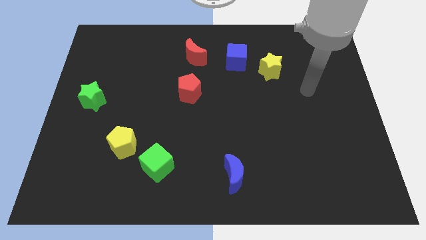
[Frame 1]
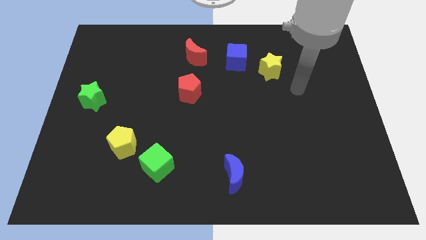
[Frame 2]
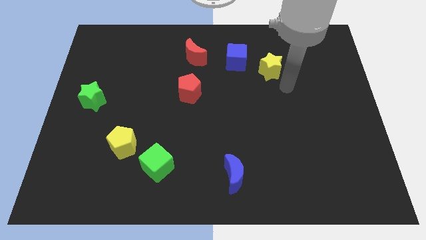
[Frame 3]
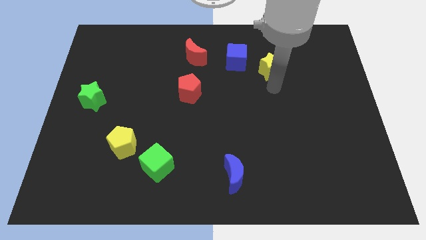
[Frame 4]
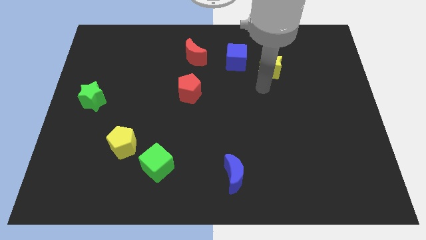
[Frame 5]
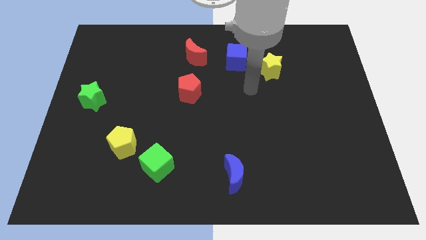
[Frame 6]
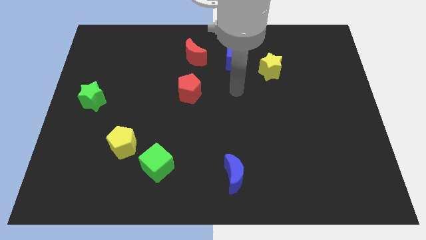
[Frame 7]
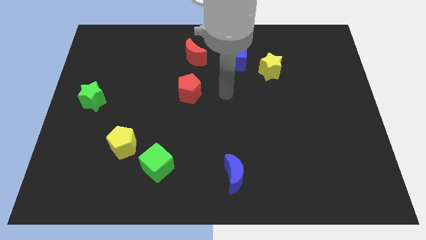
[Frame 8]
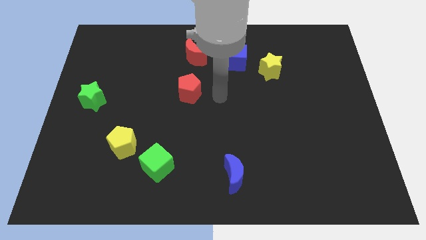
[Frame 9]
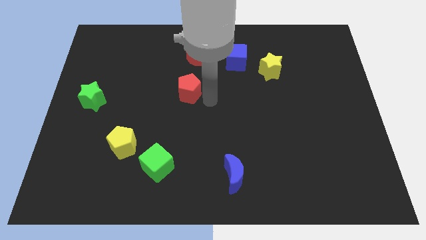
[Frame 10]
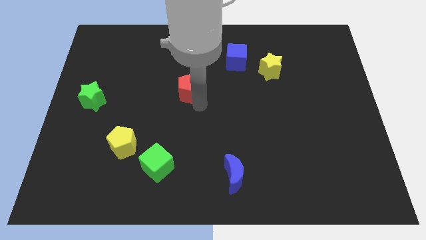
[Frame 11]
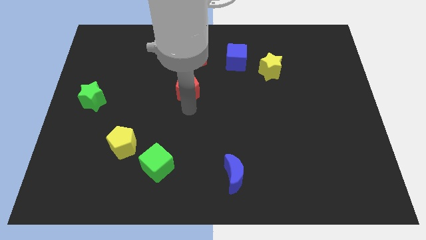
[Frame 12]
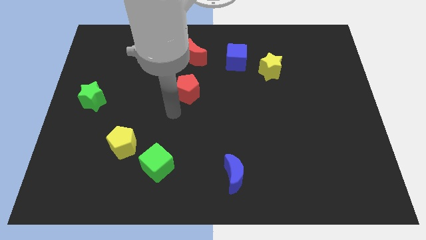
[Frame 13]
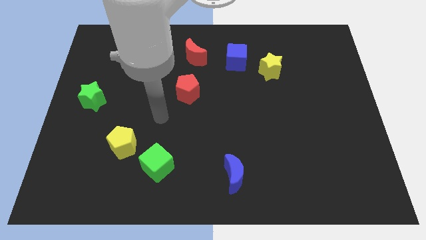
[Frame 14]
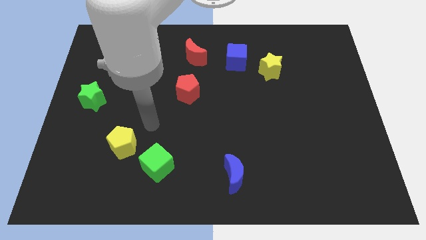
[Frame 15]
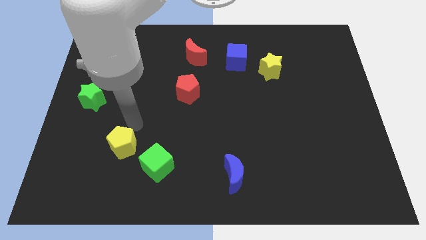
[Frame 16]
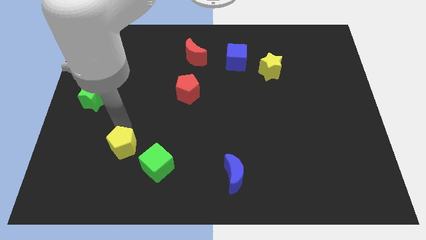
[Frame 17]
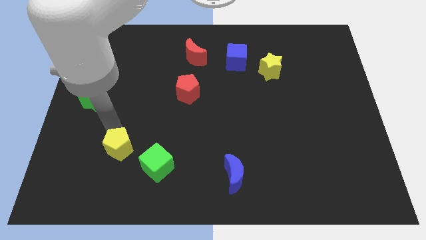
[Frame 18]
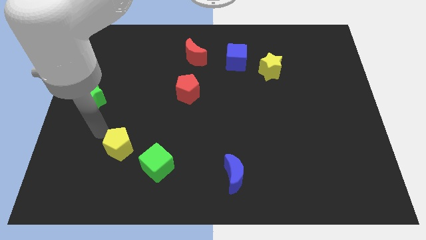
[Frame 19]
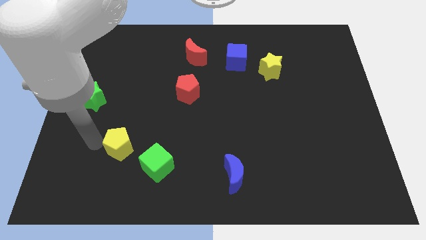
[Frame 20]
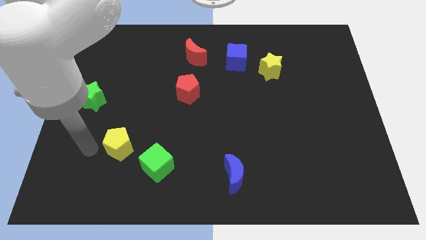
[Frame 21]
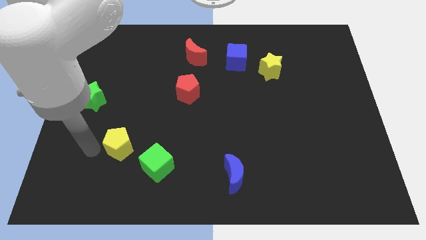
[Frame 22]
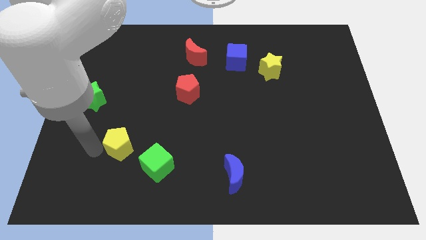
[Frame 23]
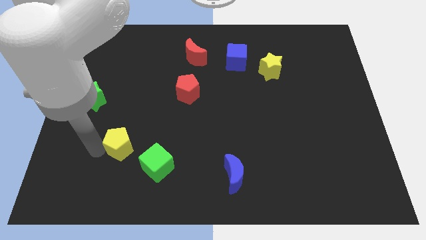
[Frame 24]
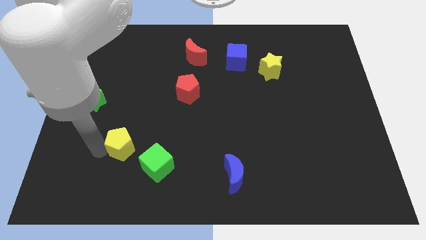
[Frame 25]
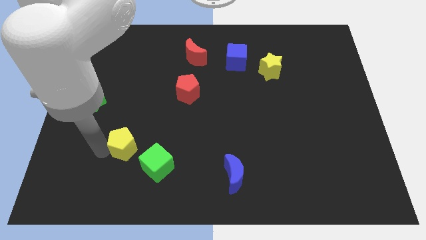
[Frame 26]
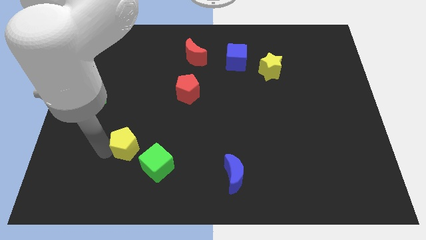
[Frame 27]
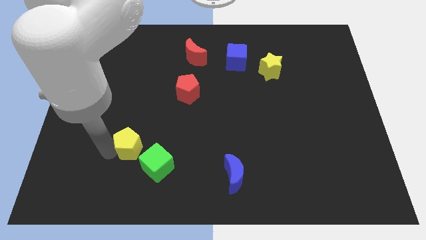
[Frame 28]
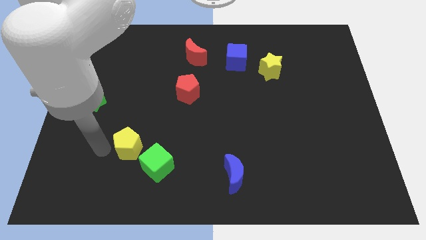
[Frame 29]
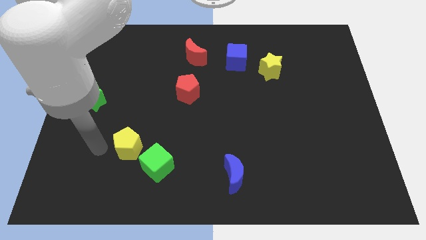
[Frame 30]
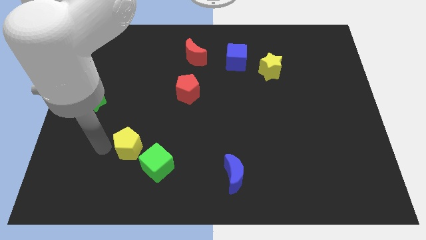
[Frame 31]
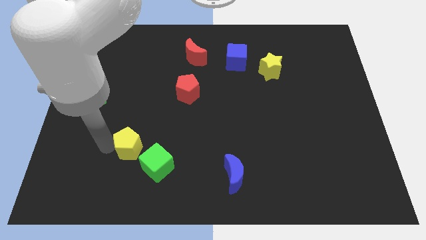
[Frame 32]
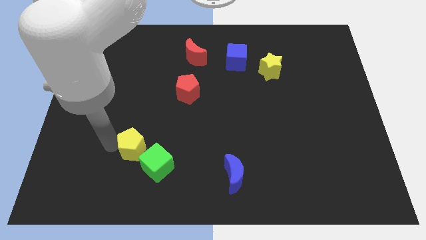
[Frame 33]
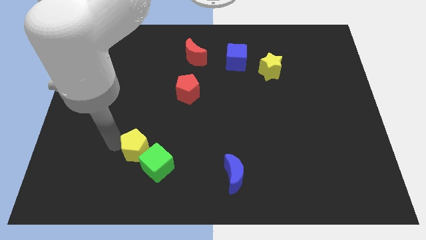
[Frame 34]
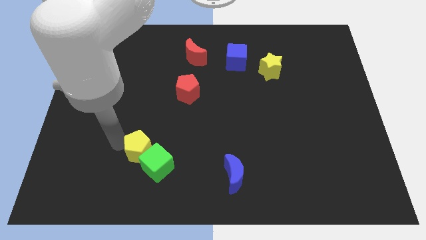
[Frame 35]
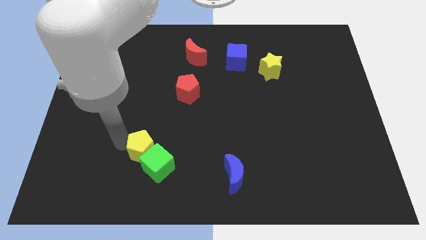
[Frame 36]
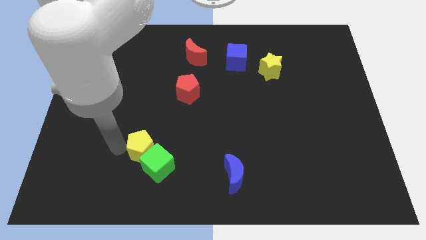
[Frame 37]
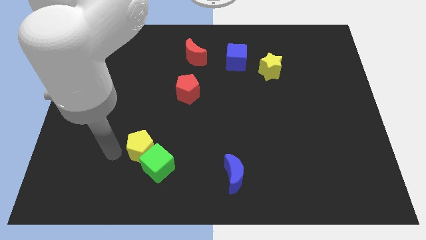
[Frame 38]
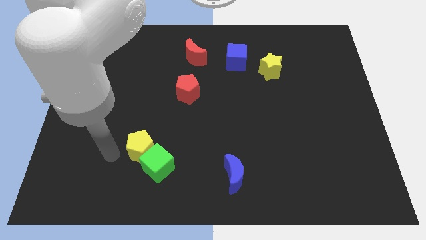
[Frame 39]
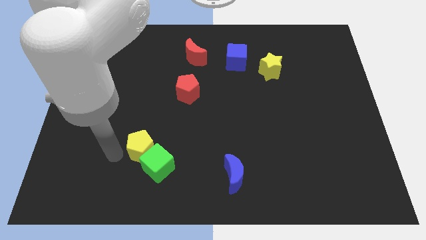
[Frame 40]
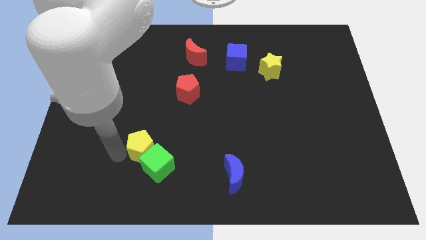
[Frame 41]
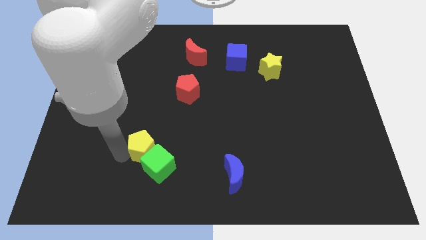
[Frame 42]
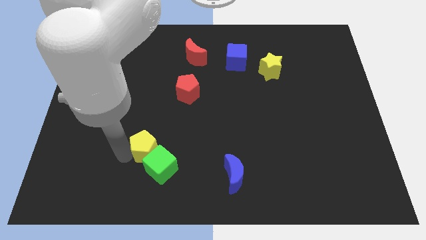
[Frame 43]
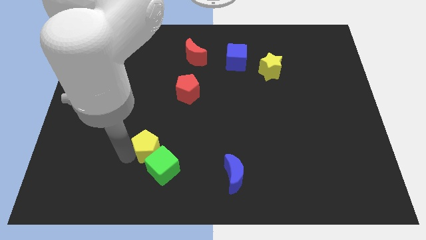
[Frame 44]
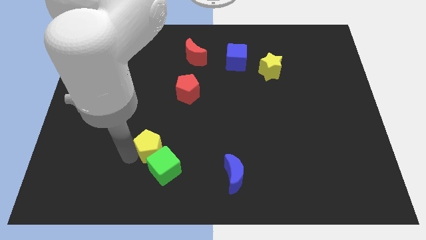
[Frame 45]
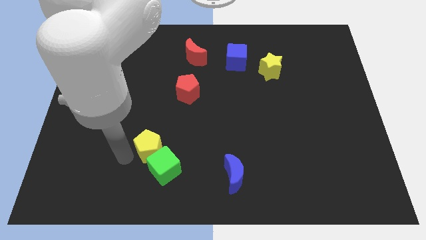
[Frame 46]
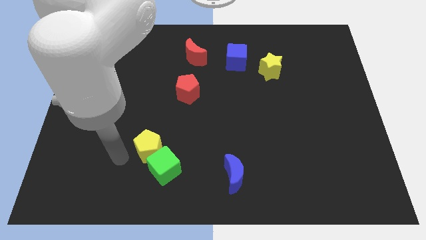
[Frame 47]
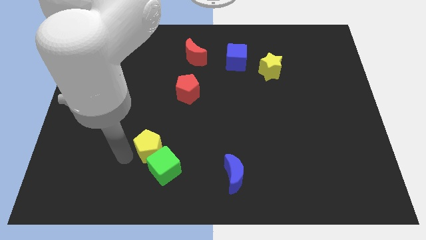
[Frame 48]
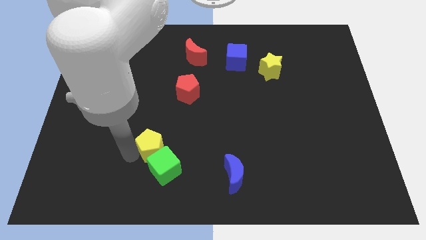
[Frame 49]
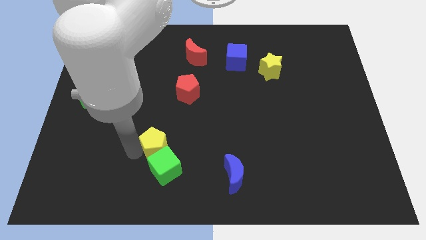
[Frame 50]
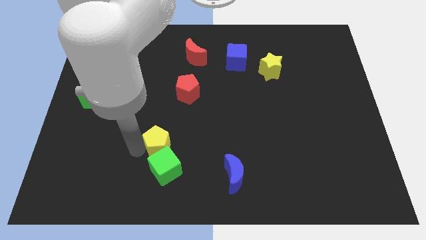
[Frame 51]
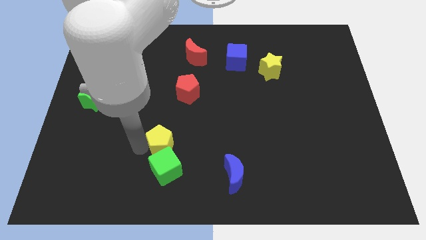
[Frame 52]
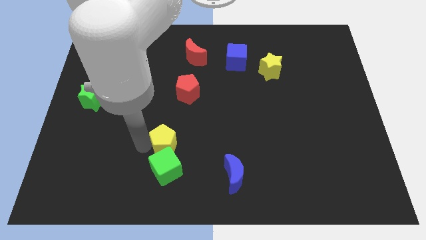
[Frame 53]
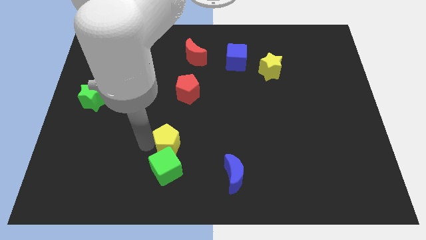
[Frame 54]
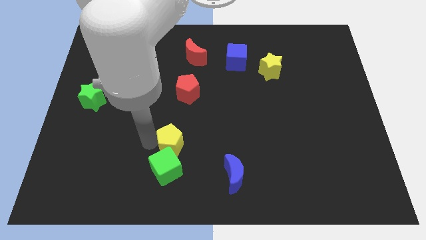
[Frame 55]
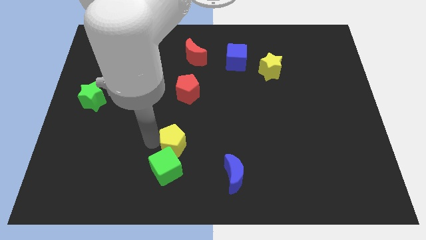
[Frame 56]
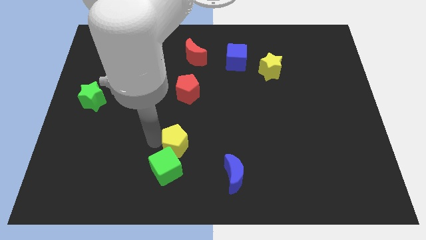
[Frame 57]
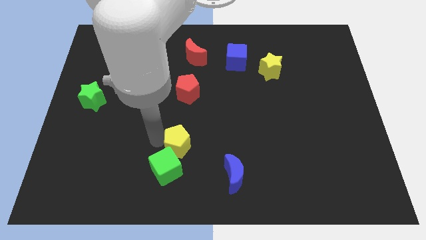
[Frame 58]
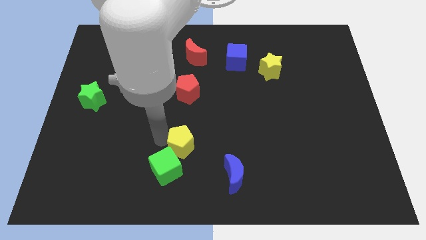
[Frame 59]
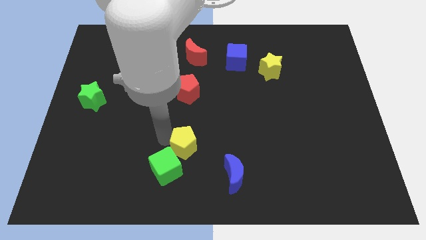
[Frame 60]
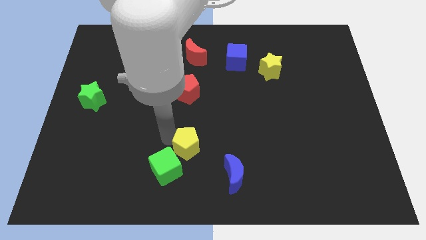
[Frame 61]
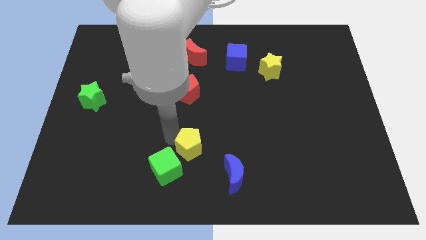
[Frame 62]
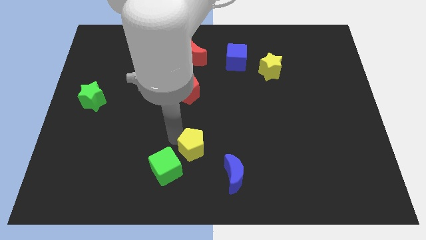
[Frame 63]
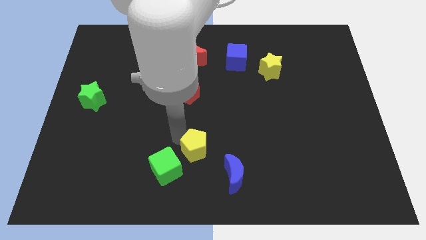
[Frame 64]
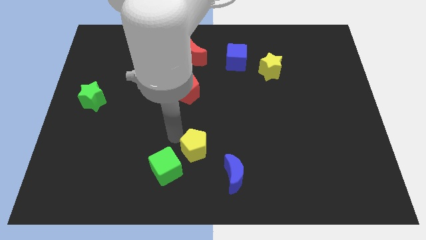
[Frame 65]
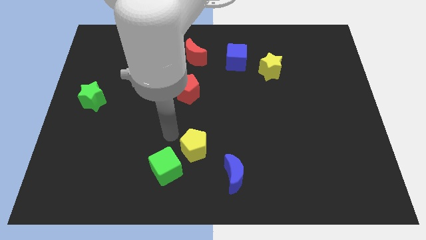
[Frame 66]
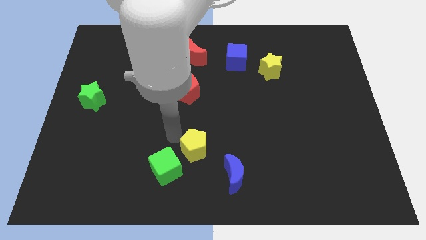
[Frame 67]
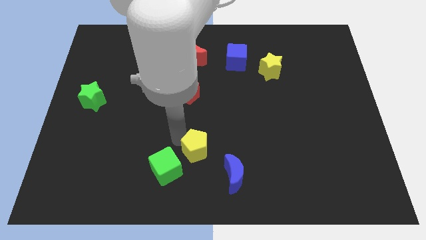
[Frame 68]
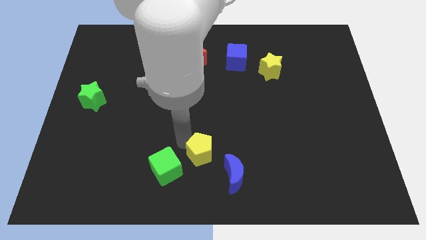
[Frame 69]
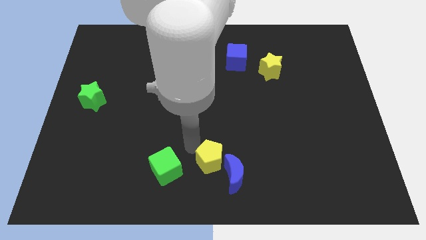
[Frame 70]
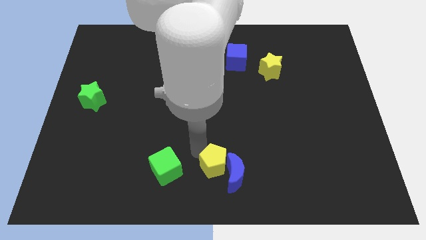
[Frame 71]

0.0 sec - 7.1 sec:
put the yellow pentagon next to the blue moon
